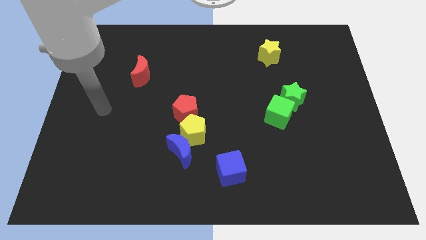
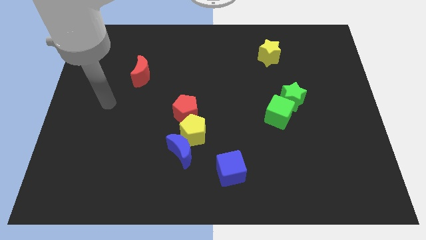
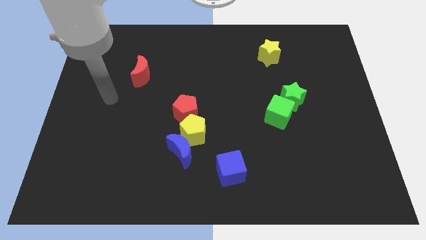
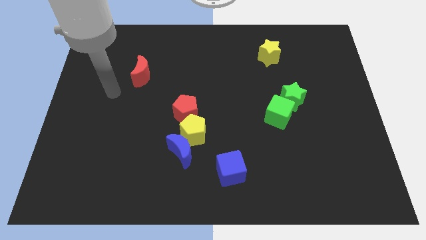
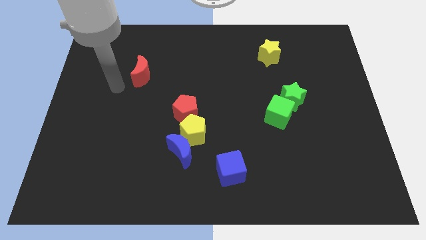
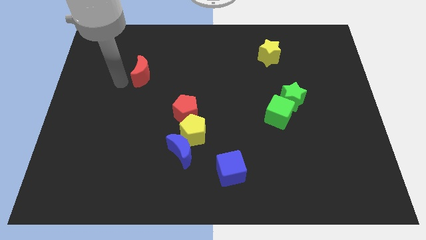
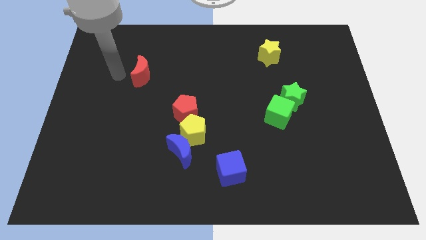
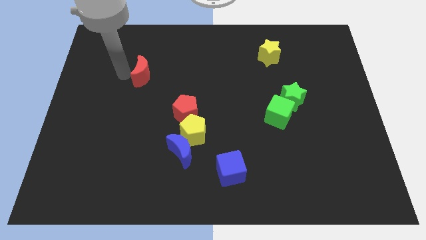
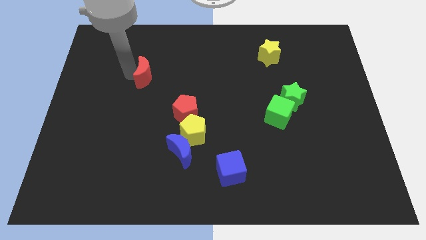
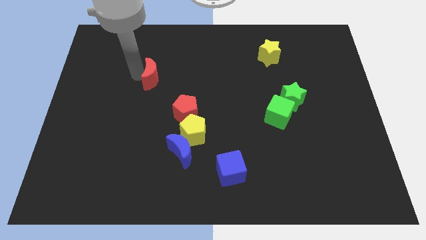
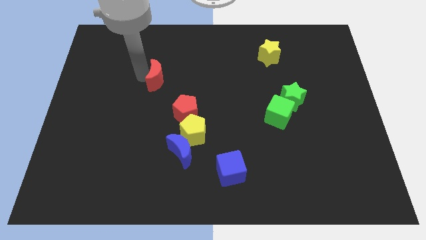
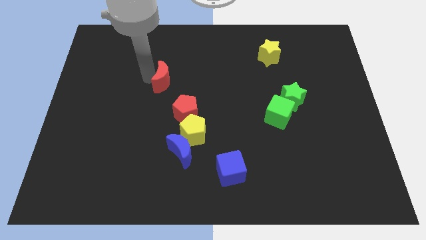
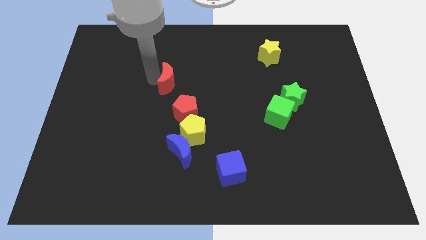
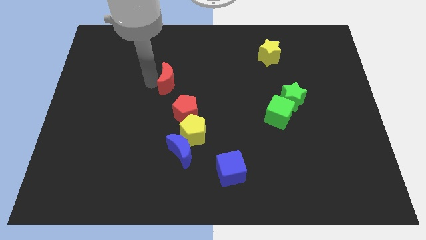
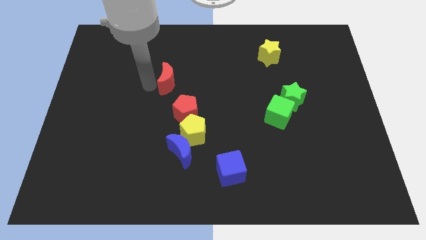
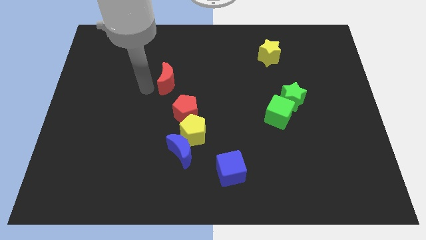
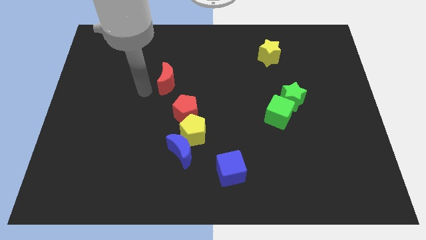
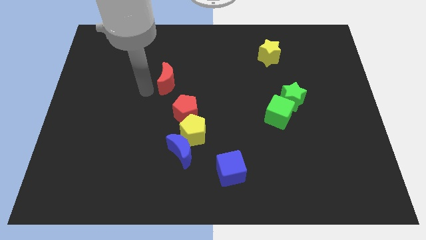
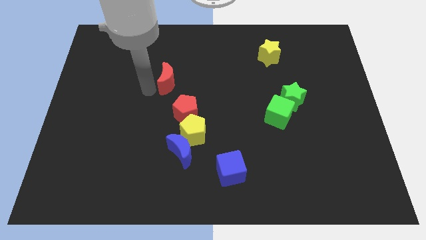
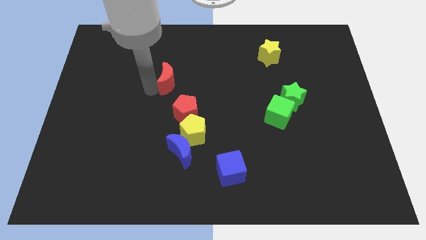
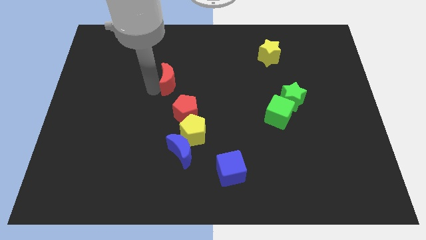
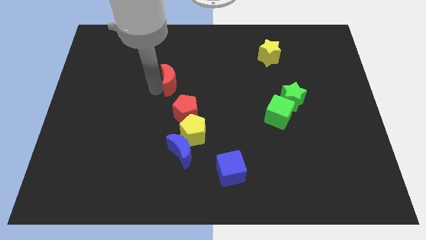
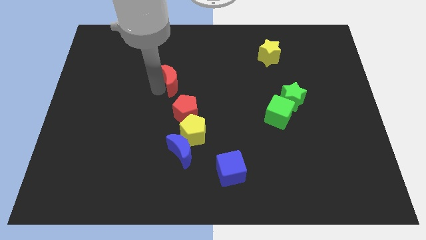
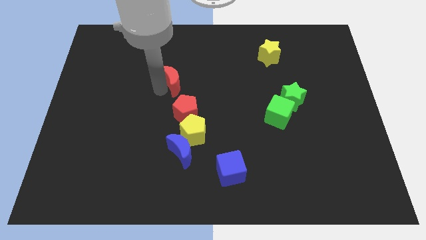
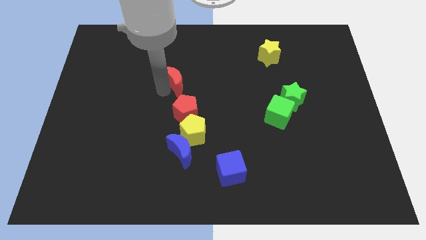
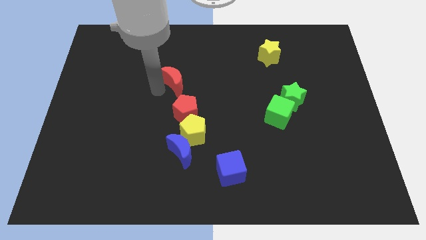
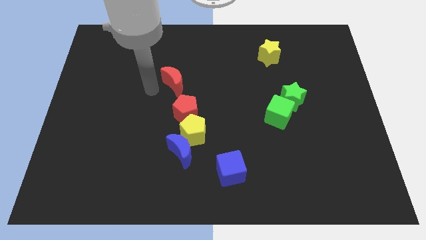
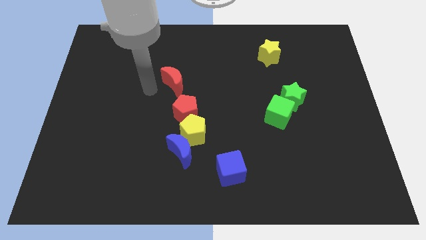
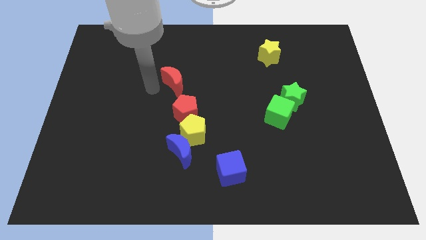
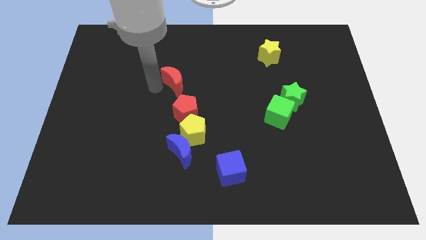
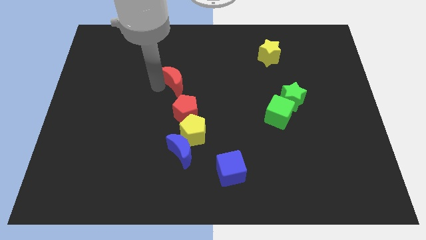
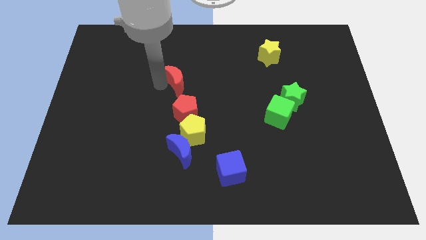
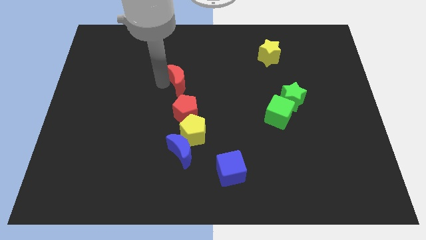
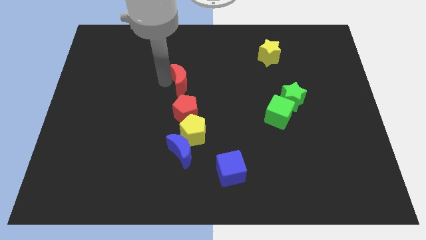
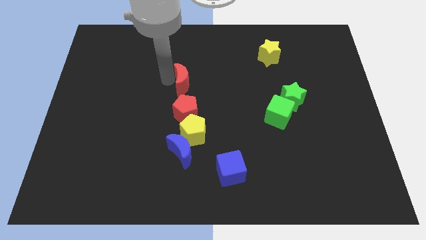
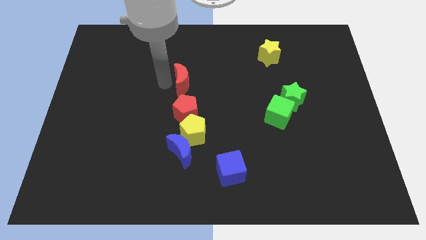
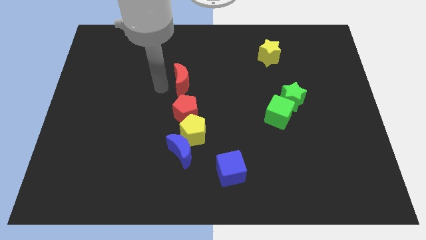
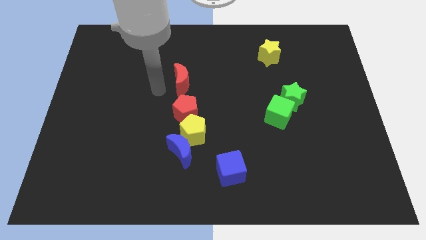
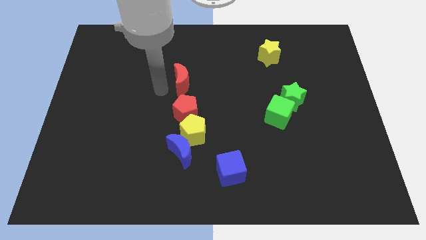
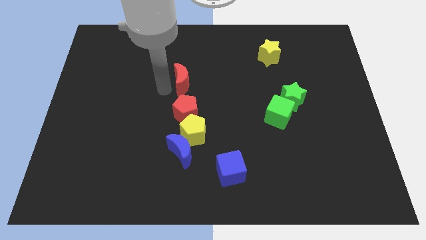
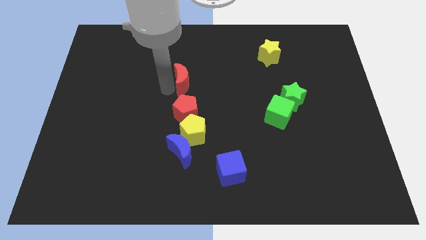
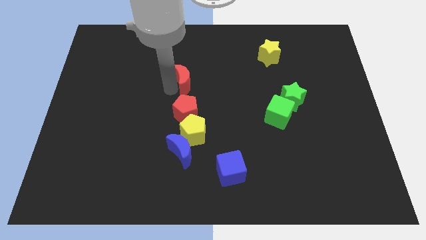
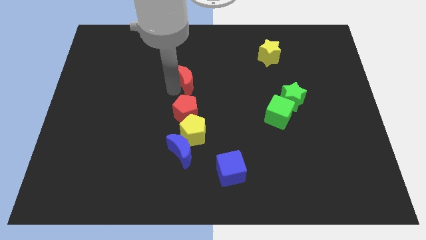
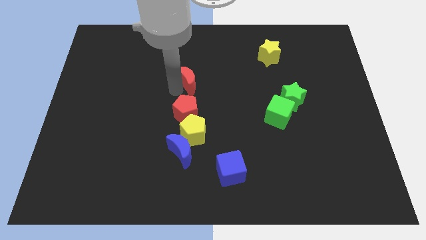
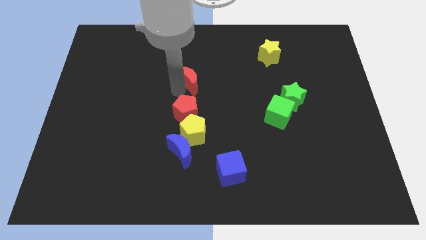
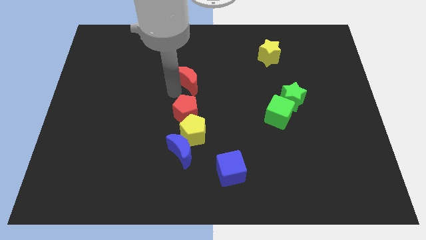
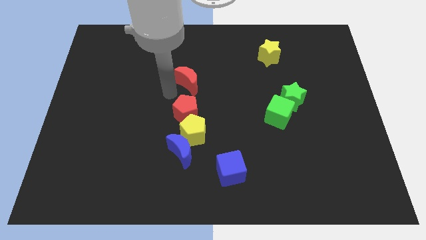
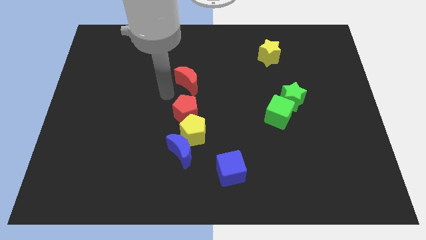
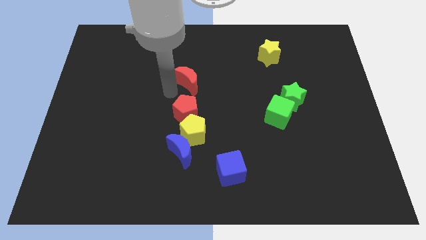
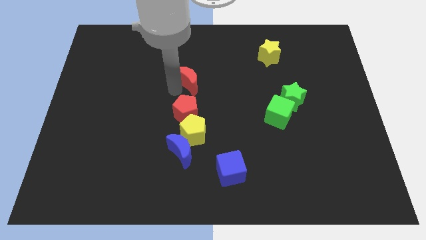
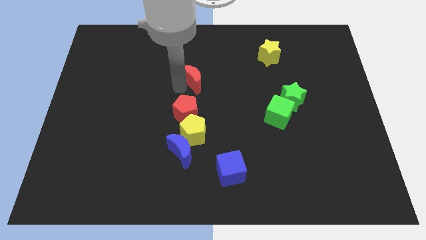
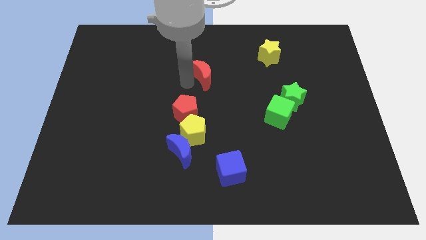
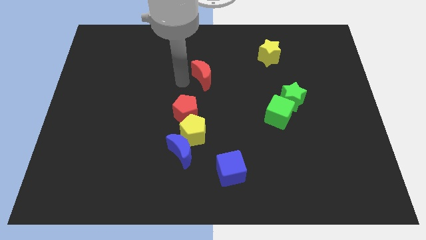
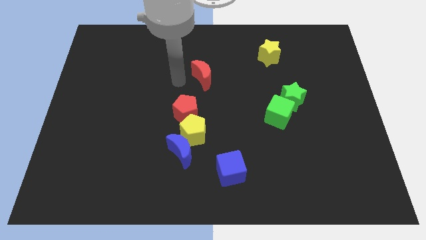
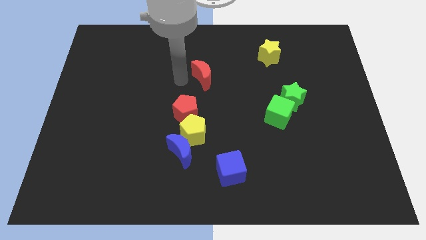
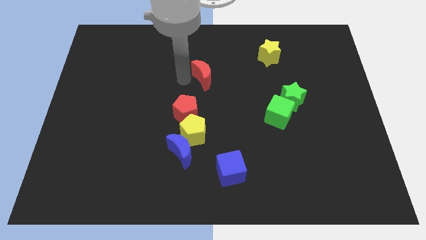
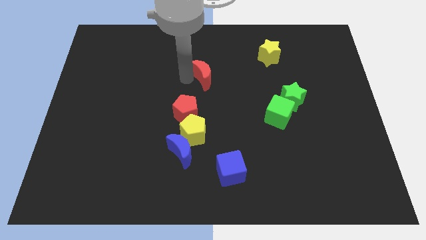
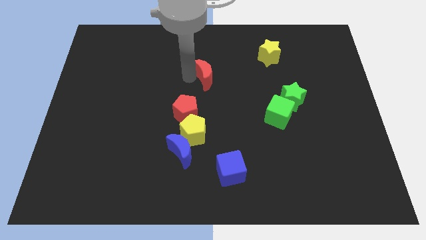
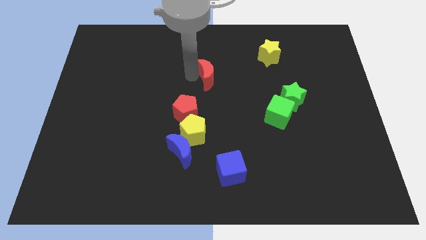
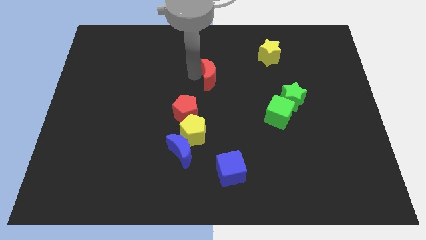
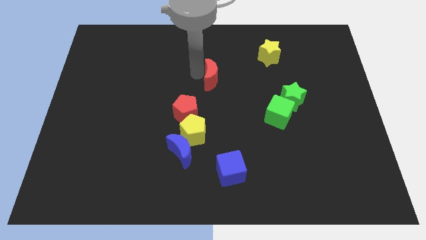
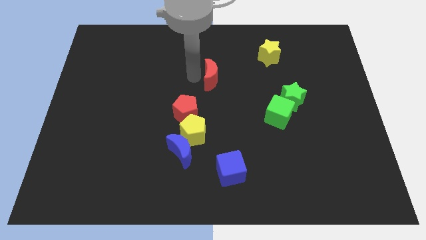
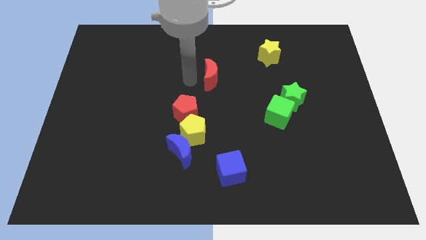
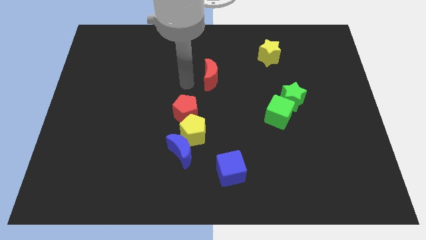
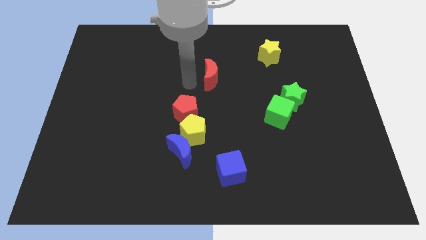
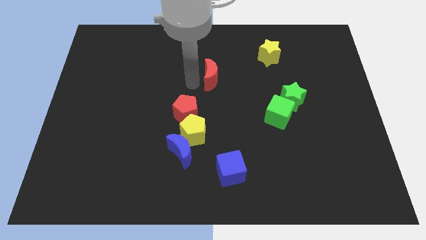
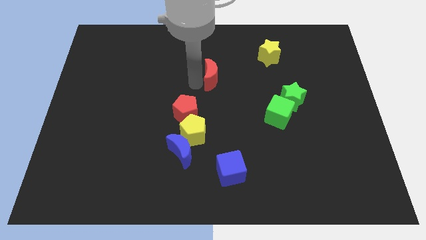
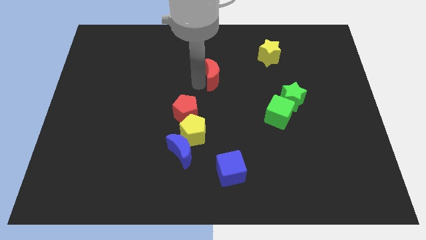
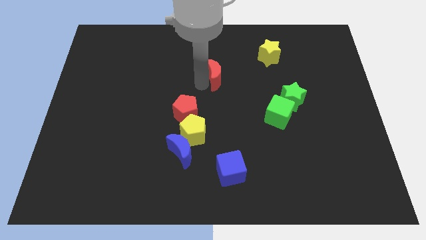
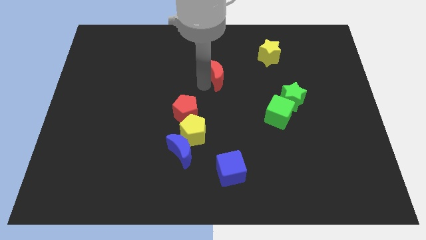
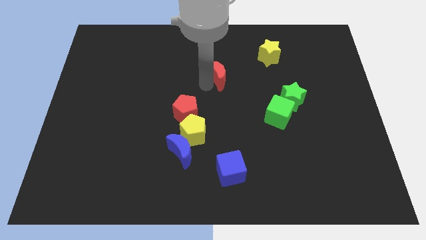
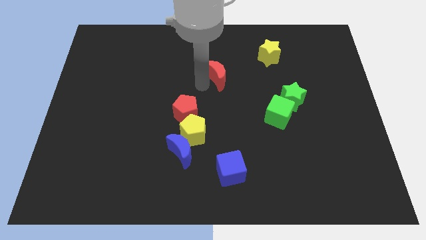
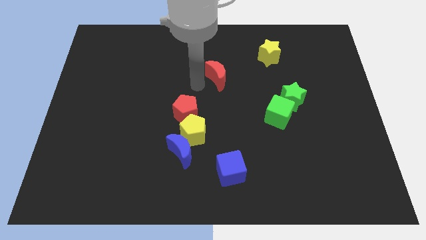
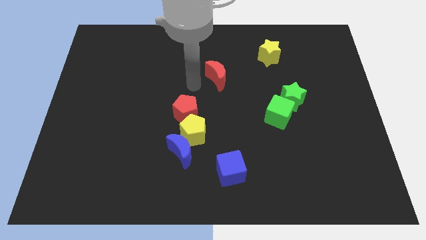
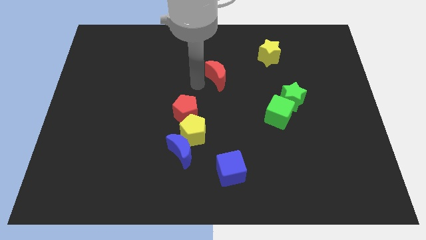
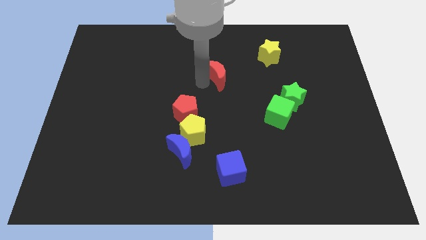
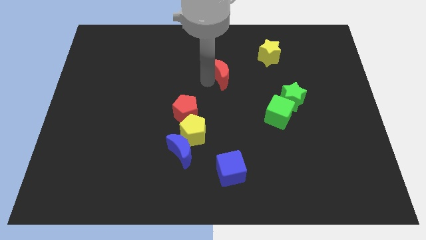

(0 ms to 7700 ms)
push the red moon to the right
